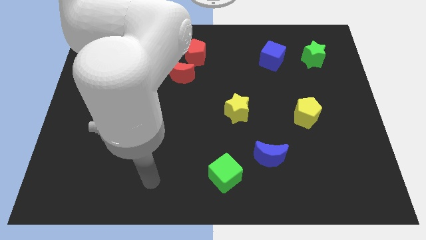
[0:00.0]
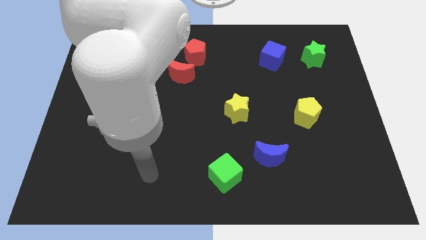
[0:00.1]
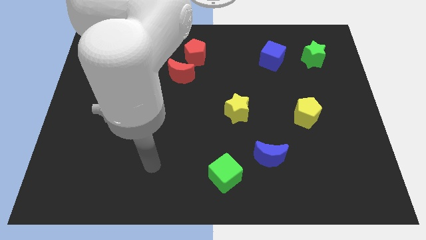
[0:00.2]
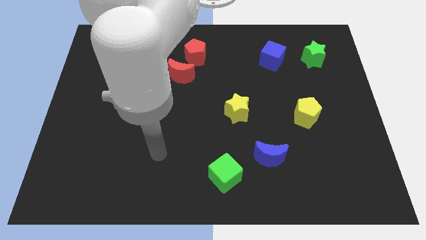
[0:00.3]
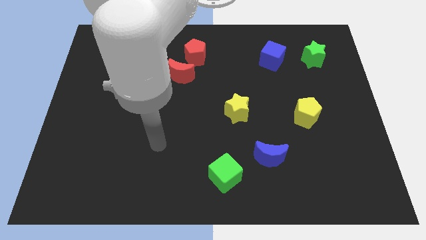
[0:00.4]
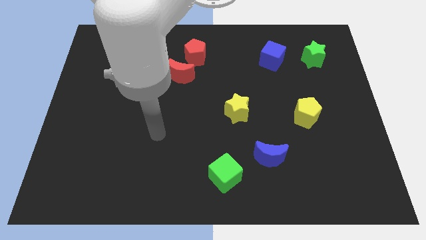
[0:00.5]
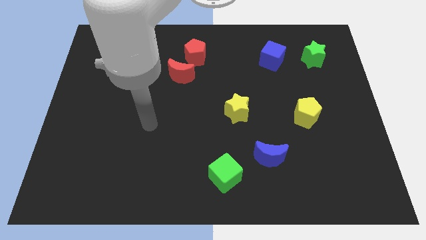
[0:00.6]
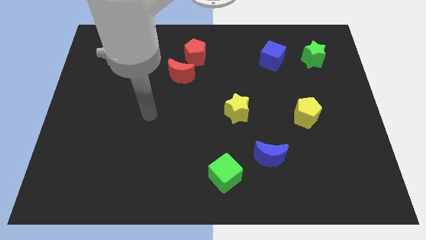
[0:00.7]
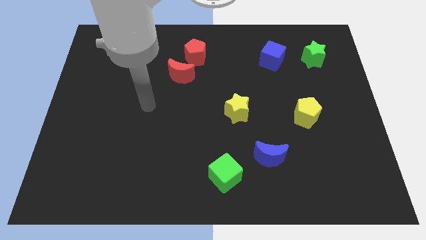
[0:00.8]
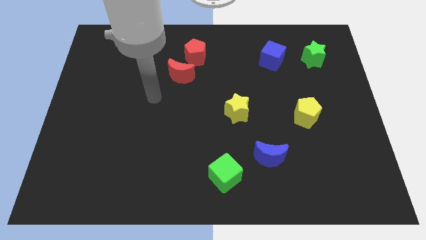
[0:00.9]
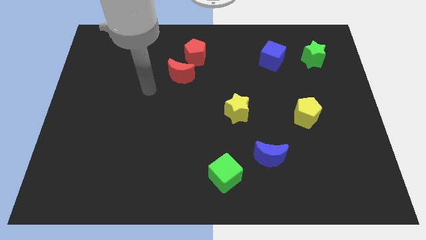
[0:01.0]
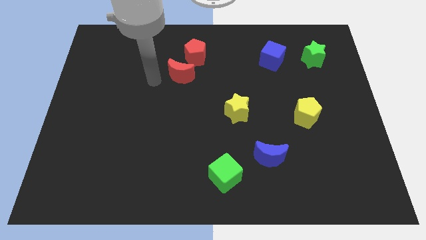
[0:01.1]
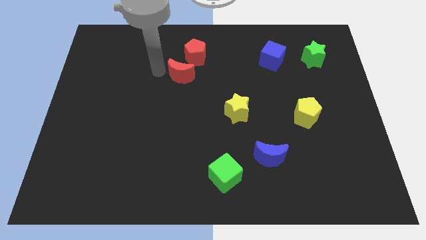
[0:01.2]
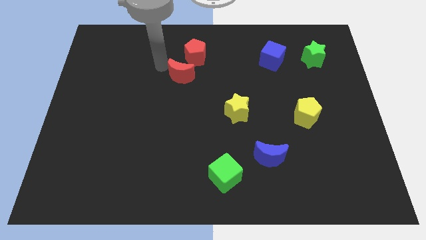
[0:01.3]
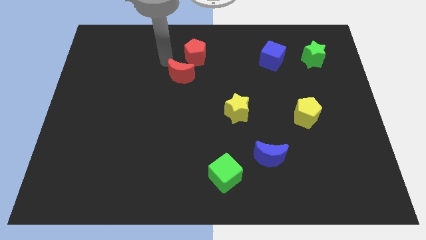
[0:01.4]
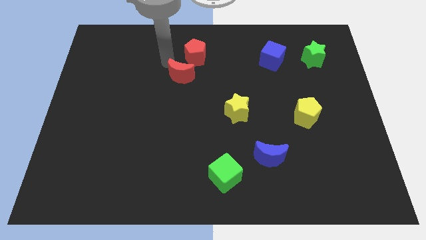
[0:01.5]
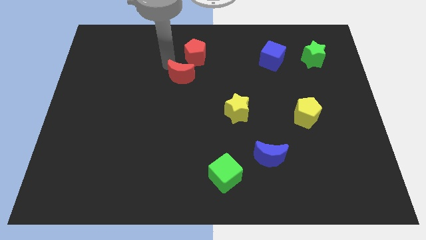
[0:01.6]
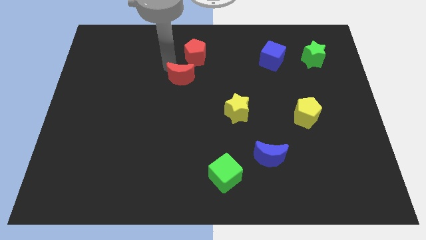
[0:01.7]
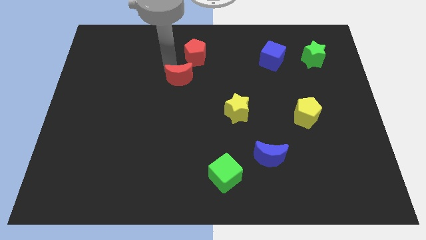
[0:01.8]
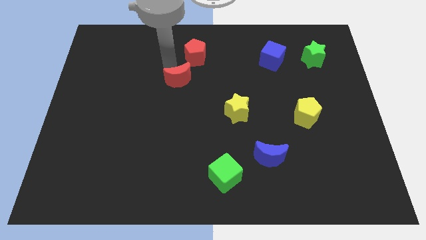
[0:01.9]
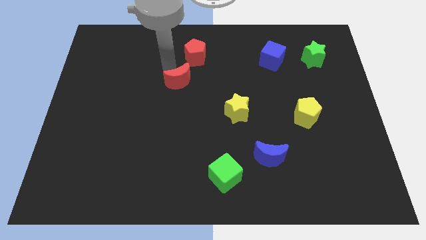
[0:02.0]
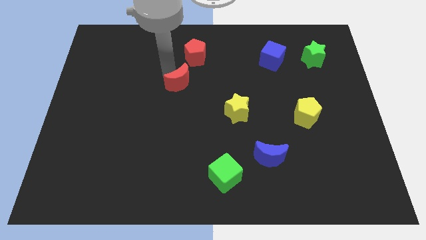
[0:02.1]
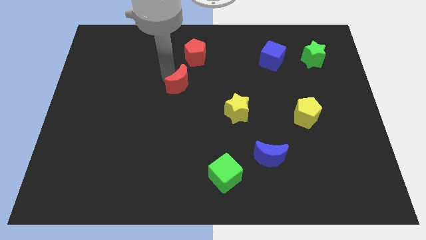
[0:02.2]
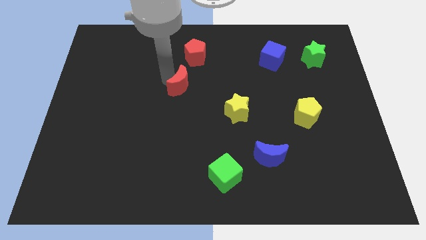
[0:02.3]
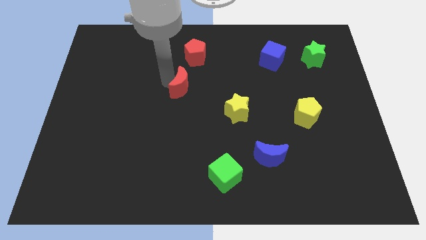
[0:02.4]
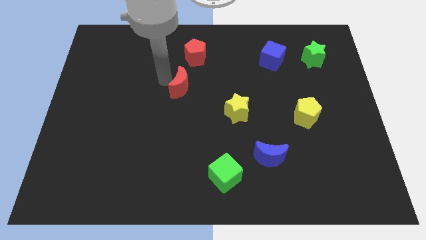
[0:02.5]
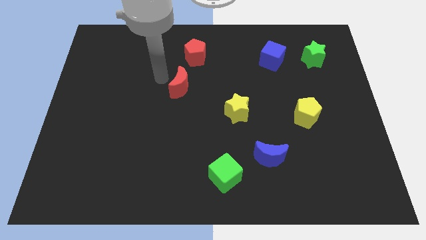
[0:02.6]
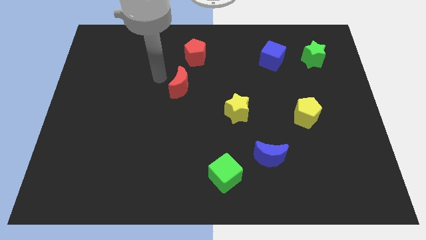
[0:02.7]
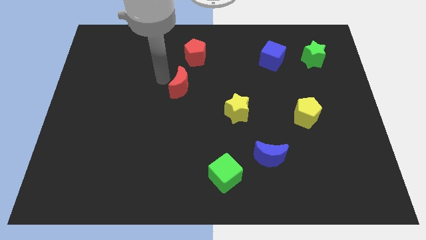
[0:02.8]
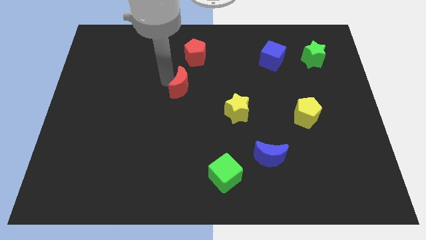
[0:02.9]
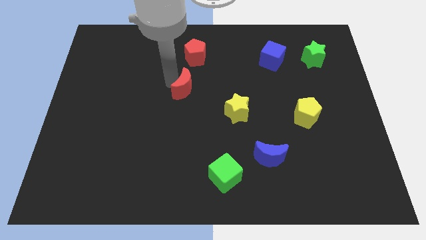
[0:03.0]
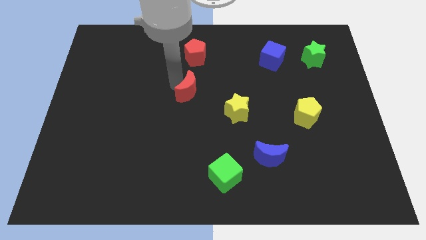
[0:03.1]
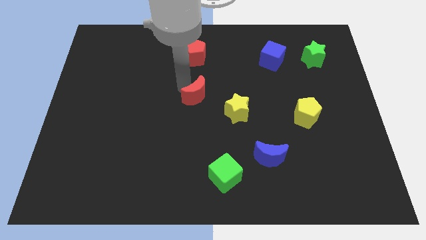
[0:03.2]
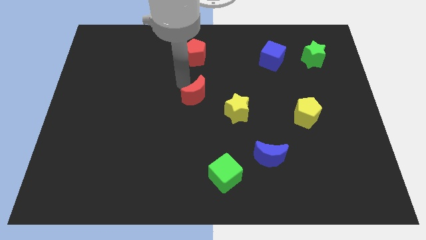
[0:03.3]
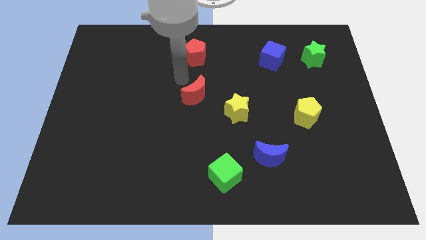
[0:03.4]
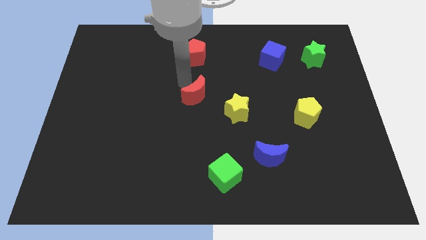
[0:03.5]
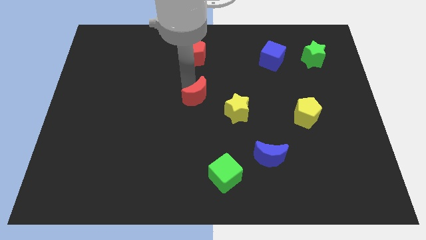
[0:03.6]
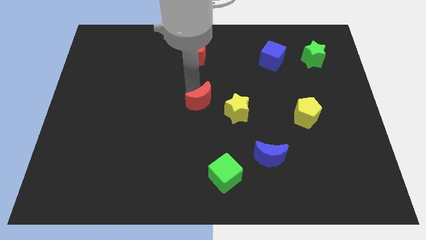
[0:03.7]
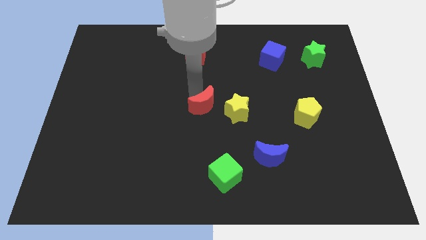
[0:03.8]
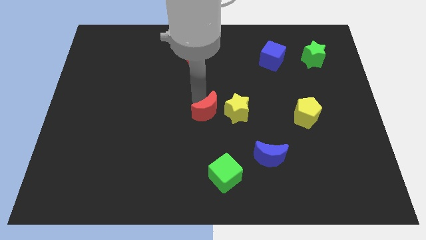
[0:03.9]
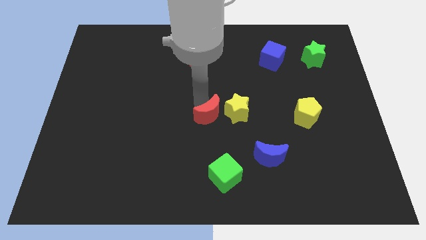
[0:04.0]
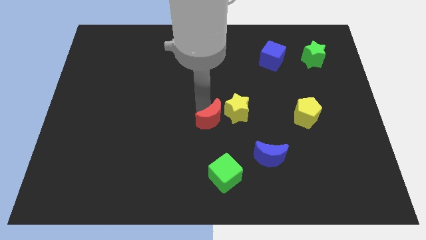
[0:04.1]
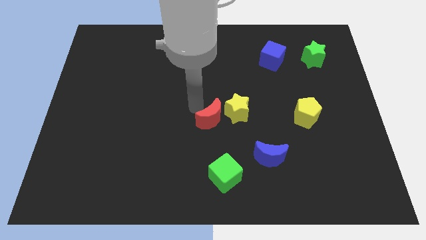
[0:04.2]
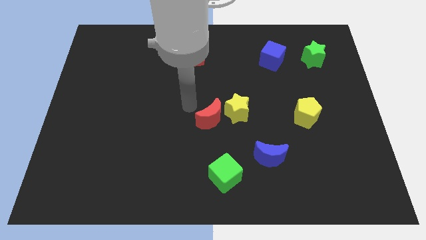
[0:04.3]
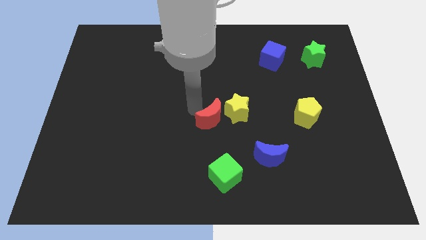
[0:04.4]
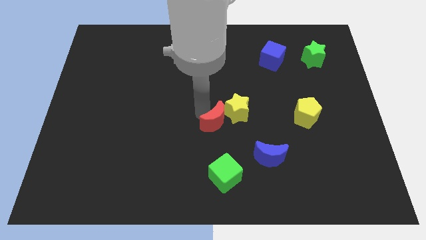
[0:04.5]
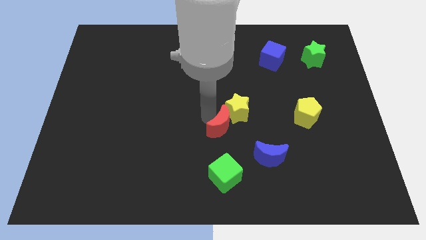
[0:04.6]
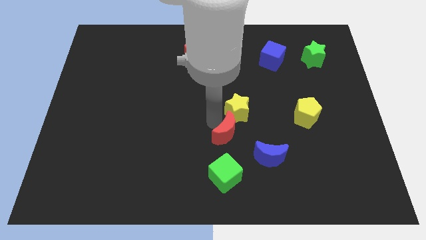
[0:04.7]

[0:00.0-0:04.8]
slide the red moon to the top left side of the blue moon

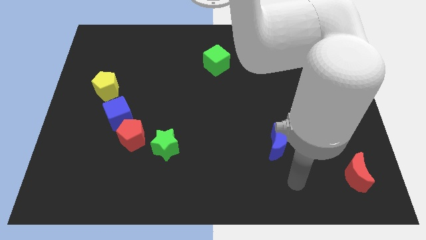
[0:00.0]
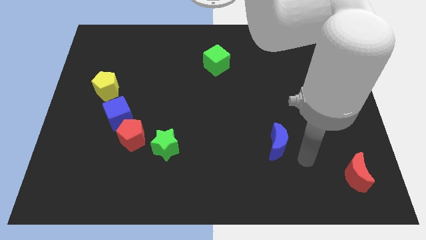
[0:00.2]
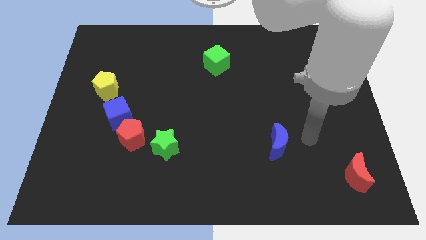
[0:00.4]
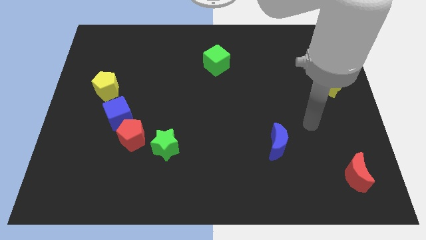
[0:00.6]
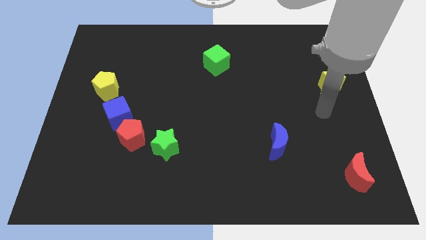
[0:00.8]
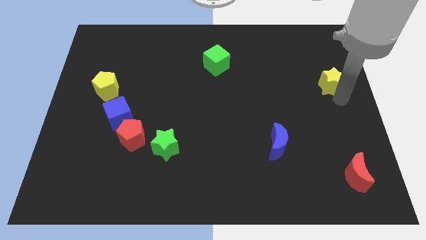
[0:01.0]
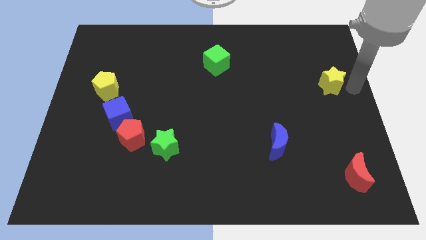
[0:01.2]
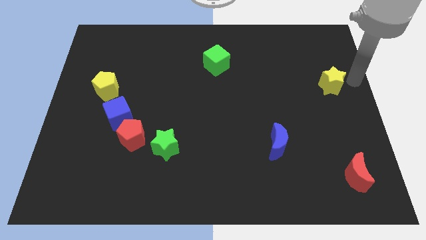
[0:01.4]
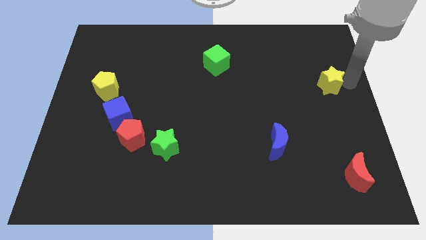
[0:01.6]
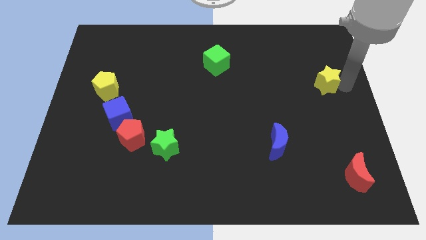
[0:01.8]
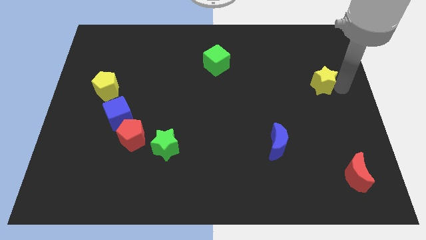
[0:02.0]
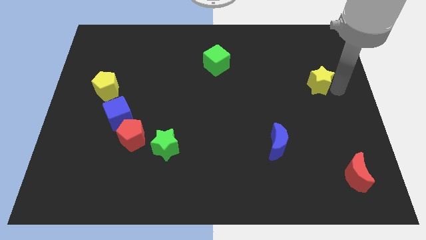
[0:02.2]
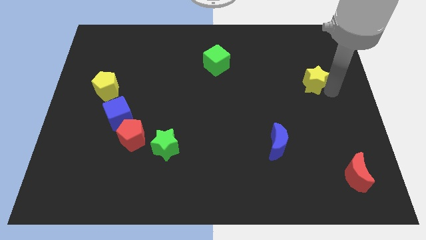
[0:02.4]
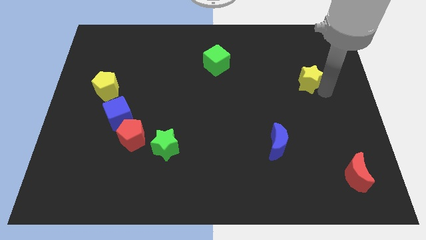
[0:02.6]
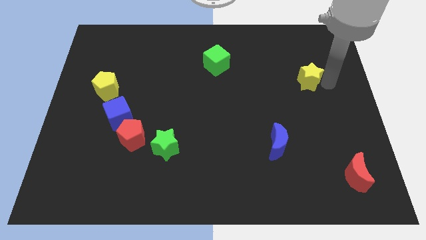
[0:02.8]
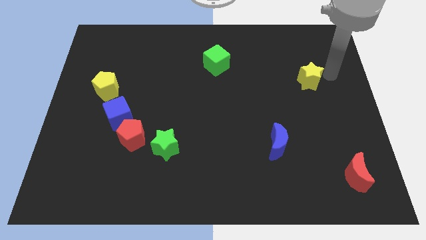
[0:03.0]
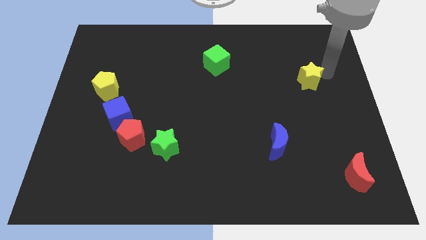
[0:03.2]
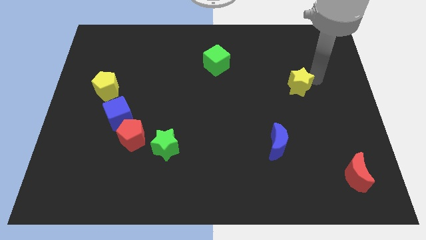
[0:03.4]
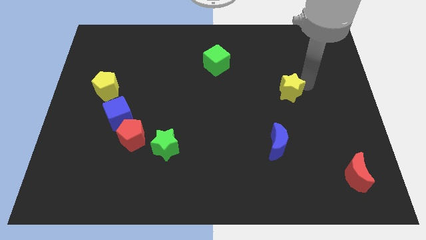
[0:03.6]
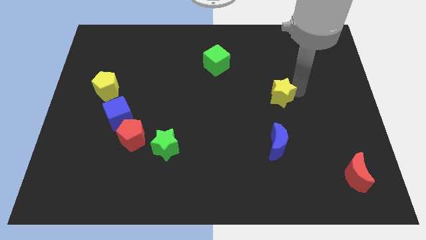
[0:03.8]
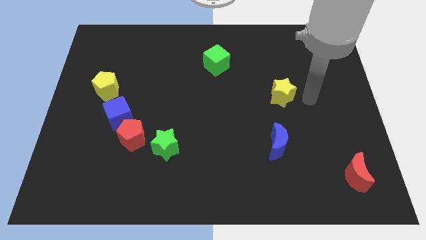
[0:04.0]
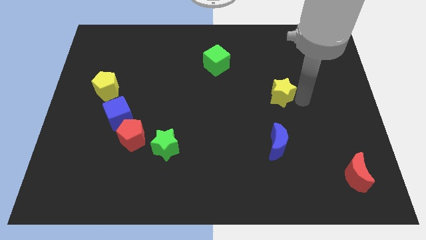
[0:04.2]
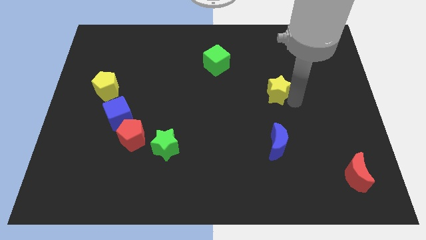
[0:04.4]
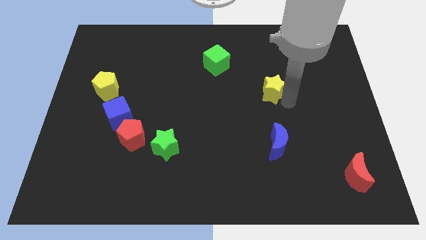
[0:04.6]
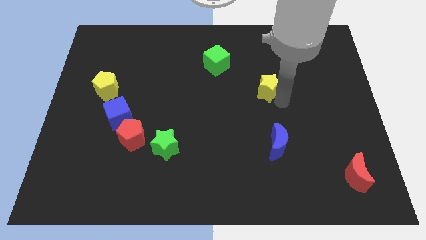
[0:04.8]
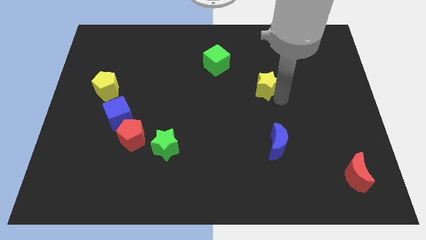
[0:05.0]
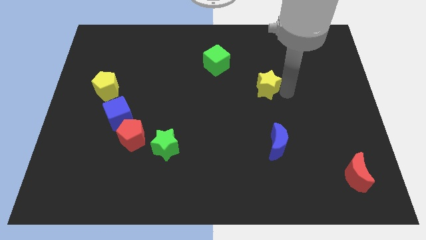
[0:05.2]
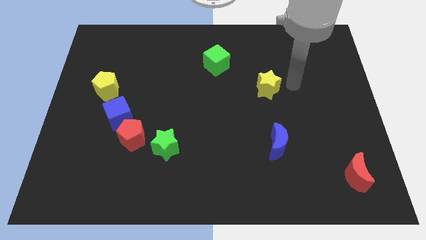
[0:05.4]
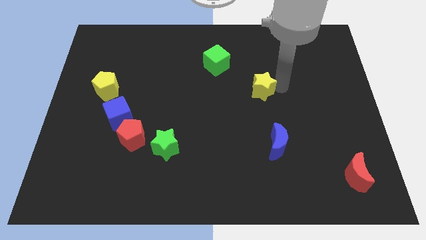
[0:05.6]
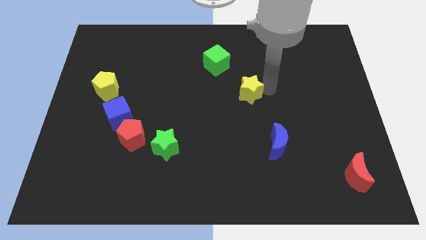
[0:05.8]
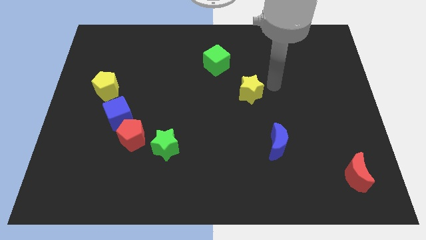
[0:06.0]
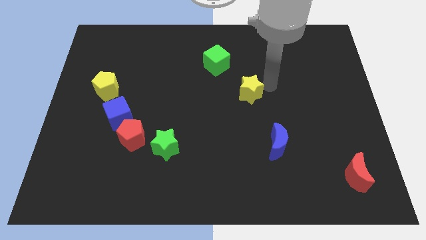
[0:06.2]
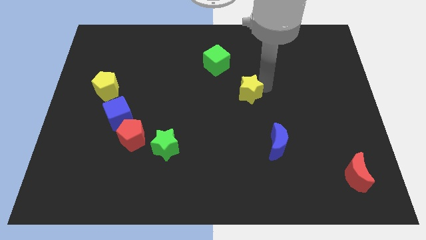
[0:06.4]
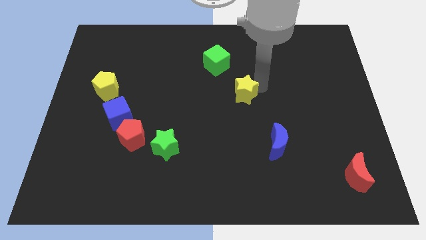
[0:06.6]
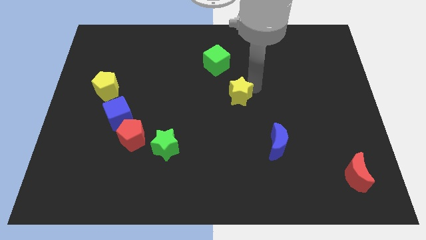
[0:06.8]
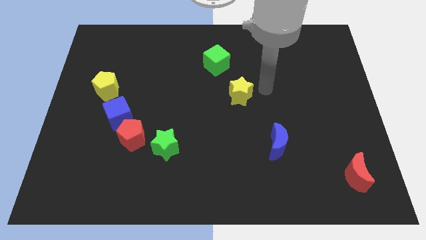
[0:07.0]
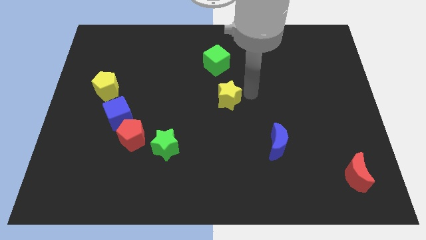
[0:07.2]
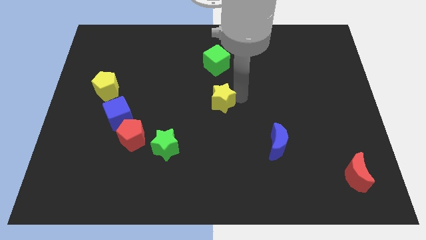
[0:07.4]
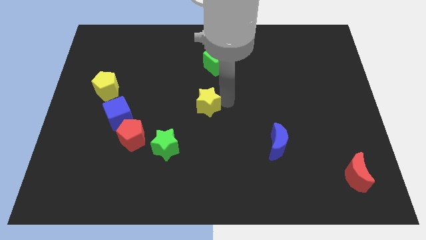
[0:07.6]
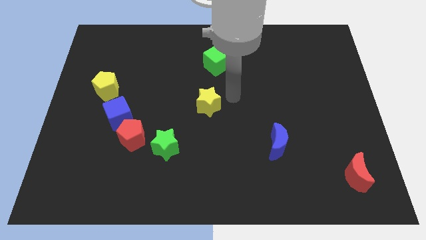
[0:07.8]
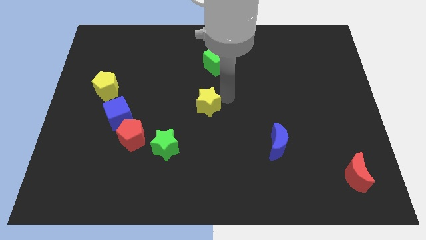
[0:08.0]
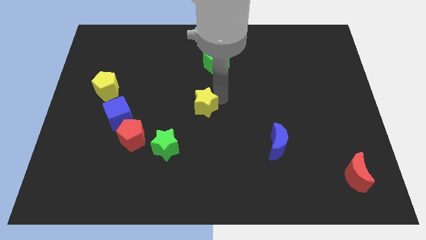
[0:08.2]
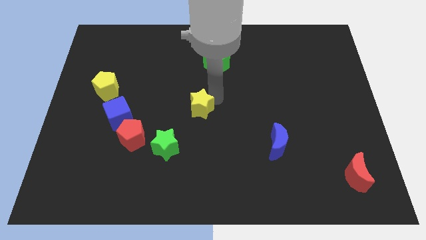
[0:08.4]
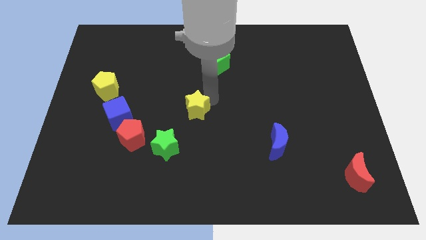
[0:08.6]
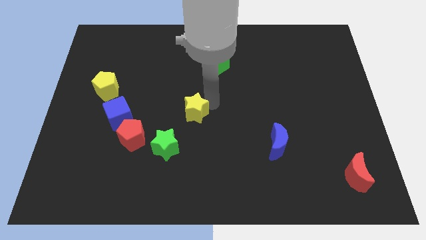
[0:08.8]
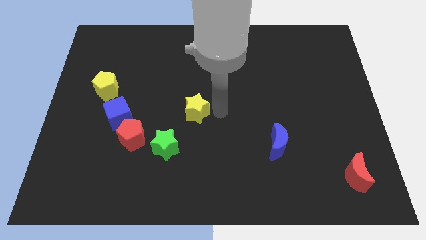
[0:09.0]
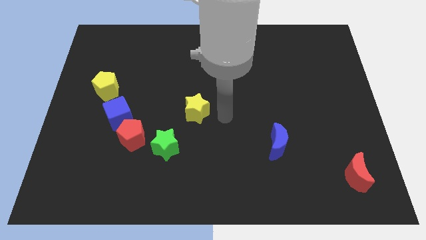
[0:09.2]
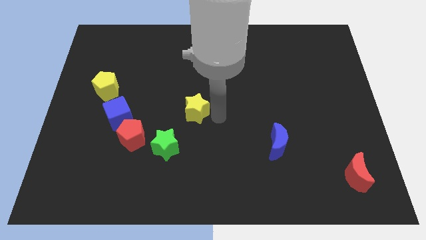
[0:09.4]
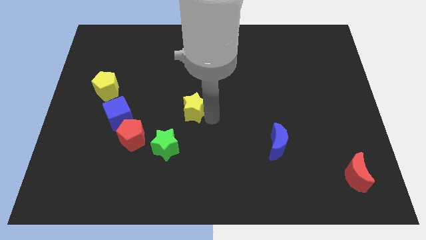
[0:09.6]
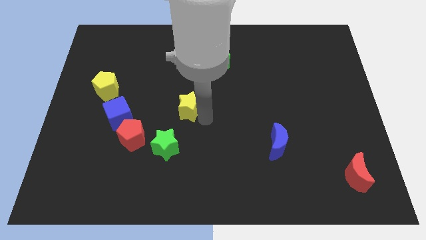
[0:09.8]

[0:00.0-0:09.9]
move the yellow star above the green star
